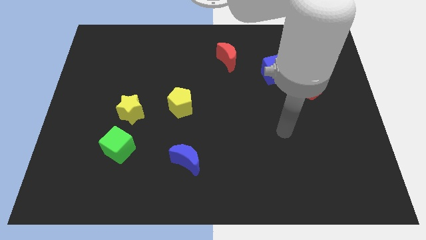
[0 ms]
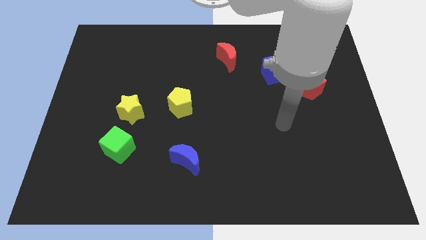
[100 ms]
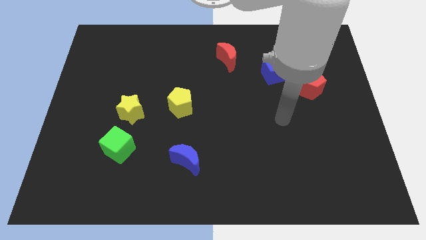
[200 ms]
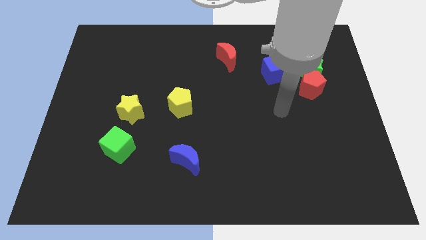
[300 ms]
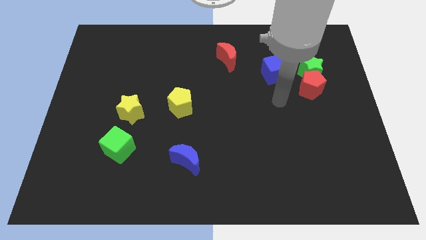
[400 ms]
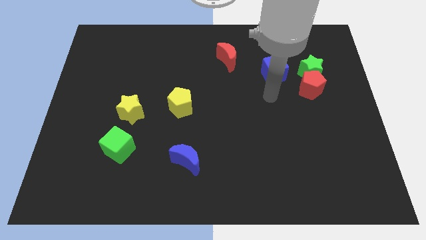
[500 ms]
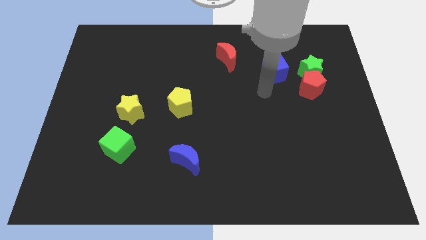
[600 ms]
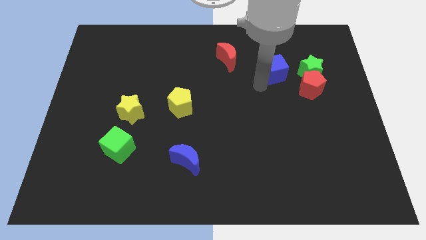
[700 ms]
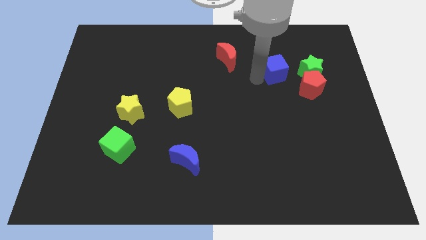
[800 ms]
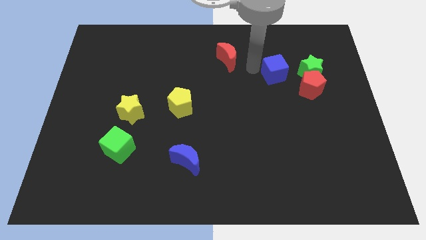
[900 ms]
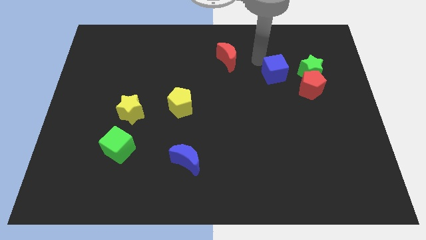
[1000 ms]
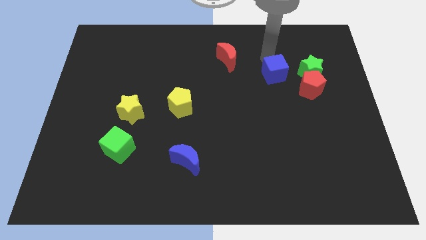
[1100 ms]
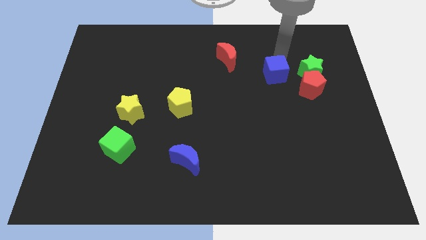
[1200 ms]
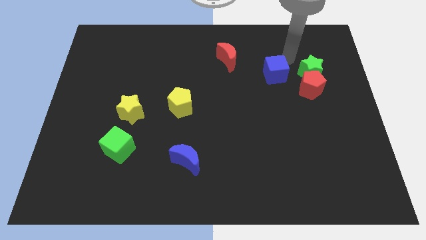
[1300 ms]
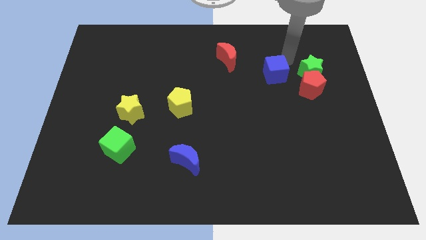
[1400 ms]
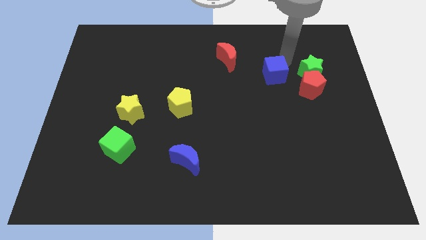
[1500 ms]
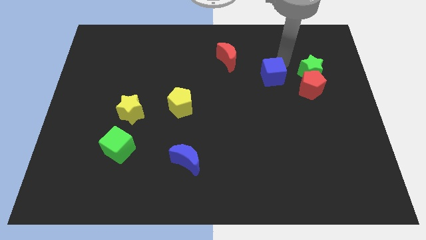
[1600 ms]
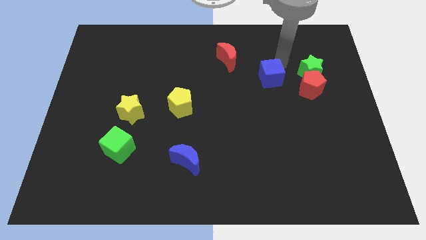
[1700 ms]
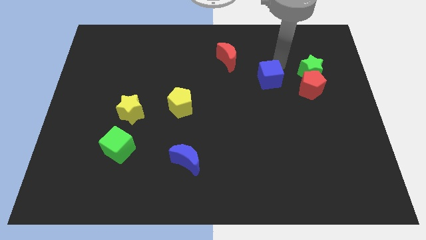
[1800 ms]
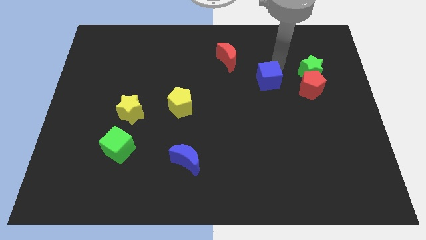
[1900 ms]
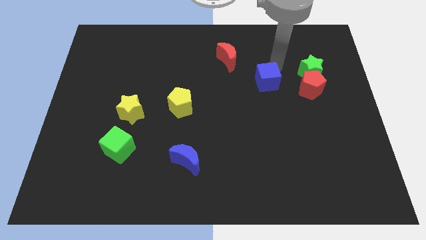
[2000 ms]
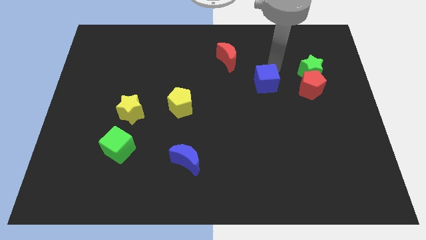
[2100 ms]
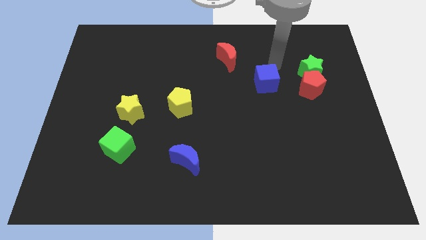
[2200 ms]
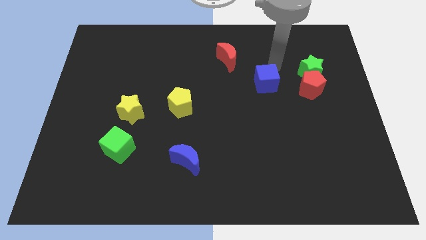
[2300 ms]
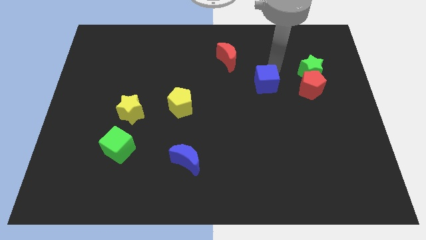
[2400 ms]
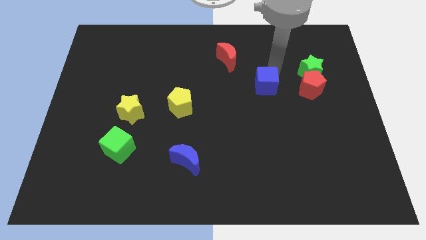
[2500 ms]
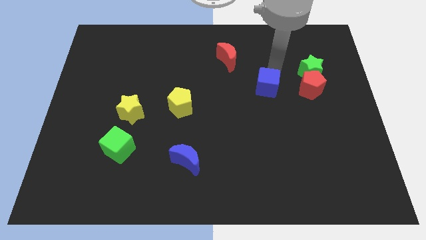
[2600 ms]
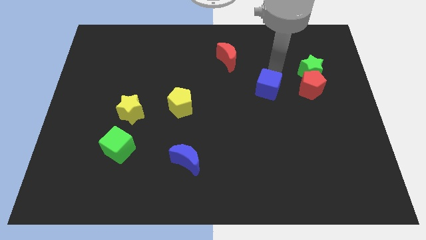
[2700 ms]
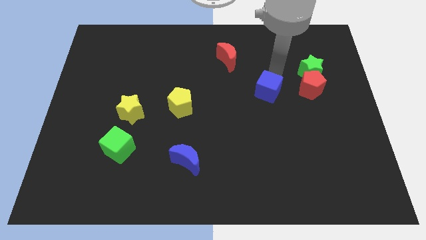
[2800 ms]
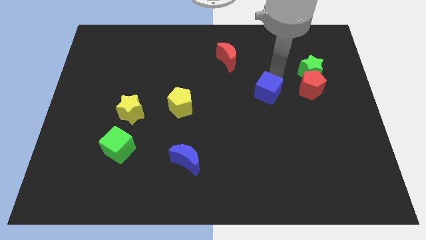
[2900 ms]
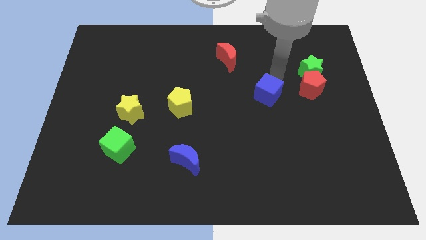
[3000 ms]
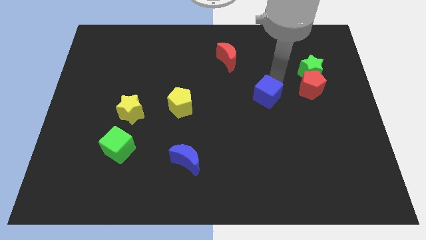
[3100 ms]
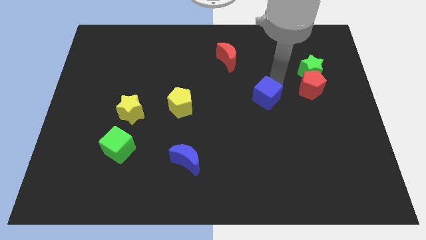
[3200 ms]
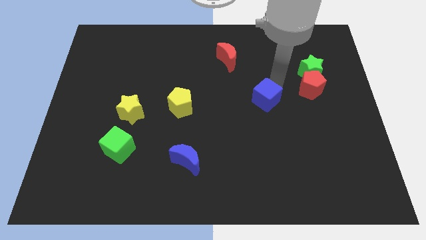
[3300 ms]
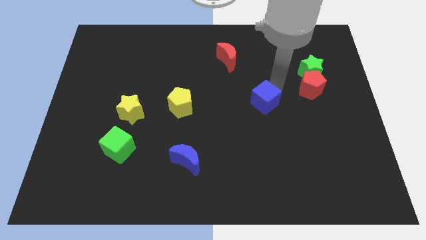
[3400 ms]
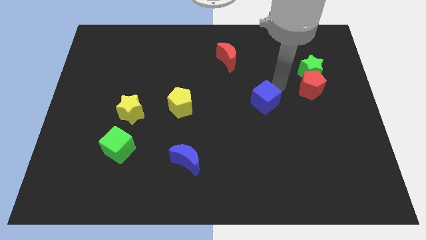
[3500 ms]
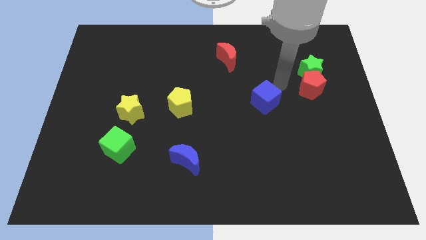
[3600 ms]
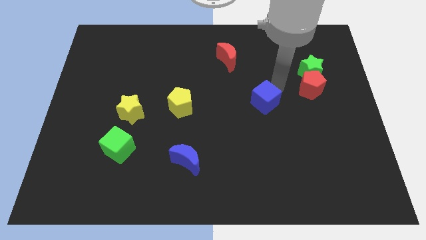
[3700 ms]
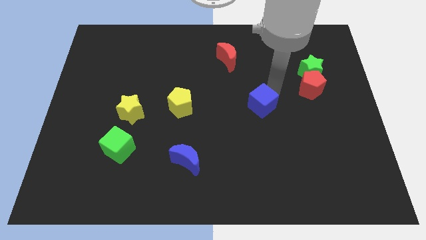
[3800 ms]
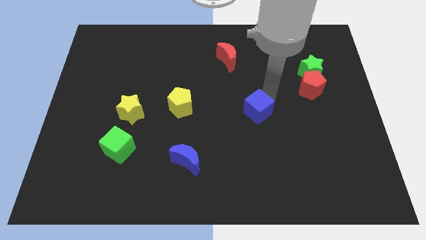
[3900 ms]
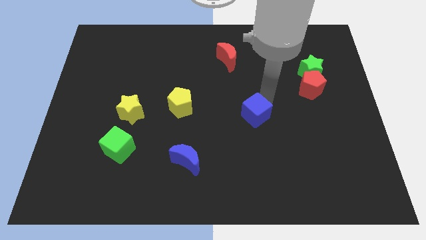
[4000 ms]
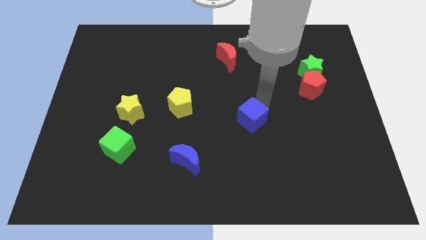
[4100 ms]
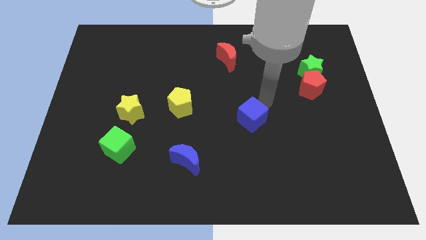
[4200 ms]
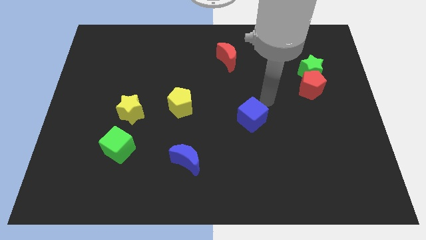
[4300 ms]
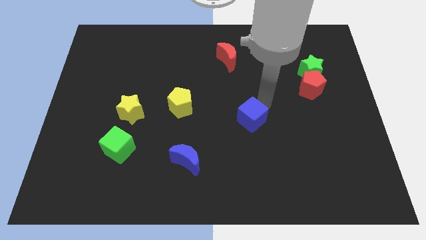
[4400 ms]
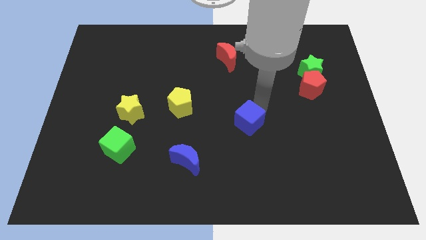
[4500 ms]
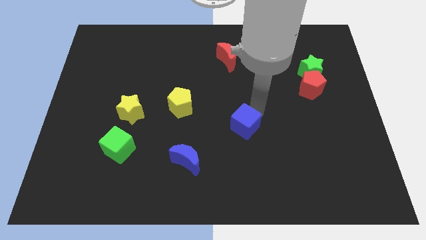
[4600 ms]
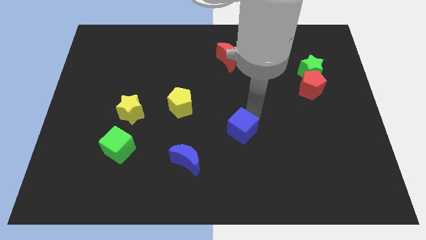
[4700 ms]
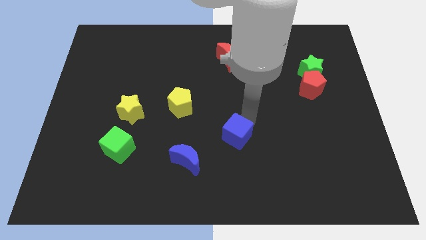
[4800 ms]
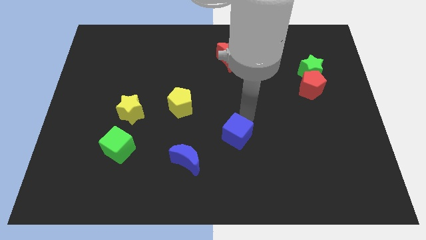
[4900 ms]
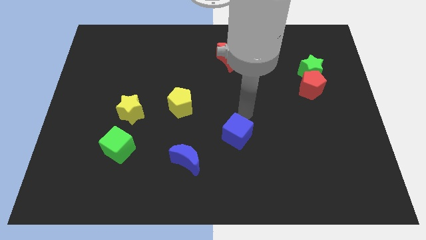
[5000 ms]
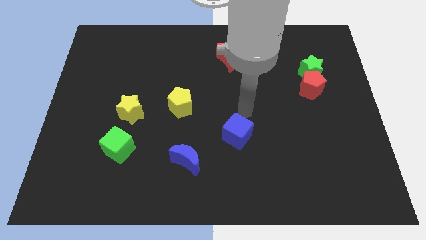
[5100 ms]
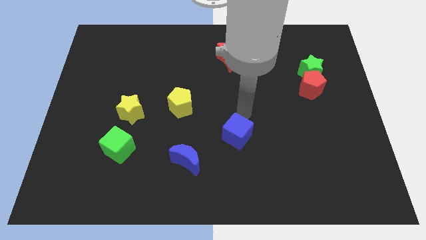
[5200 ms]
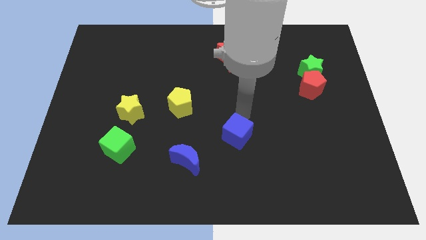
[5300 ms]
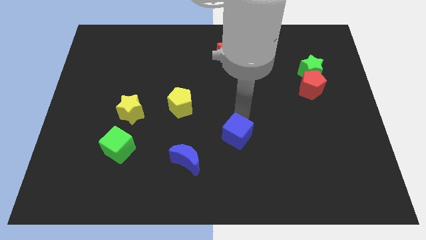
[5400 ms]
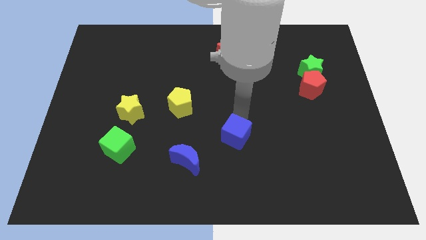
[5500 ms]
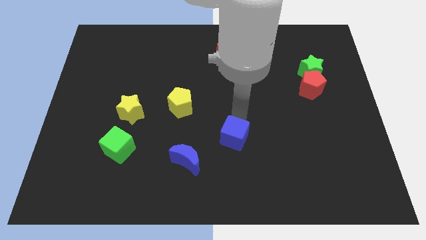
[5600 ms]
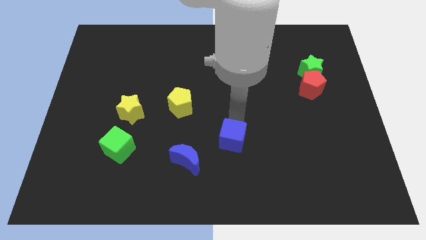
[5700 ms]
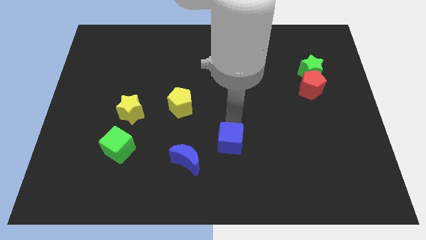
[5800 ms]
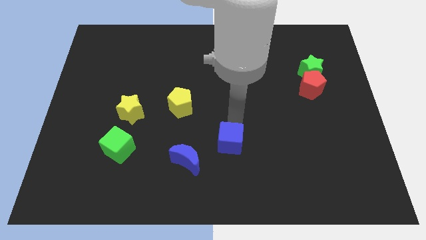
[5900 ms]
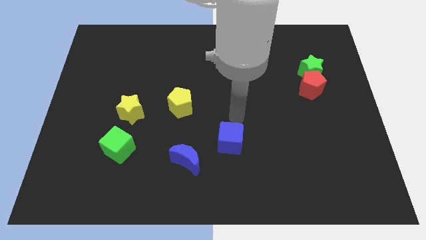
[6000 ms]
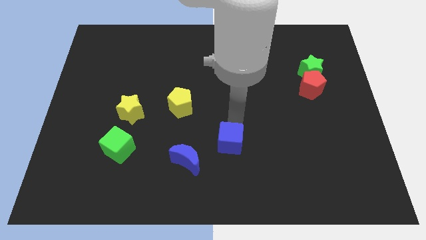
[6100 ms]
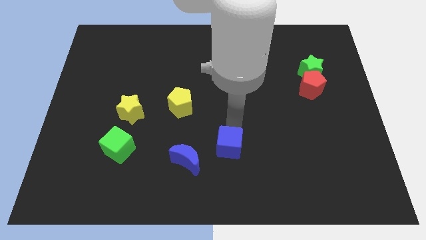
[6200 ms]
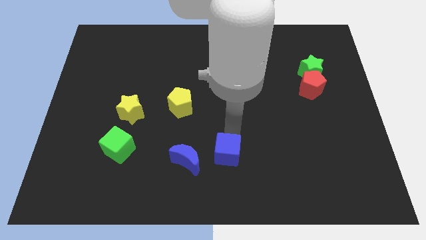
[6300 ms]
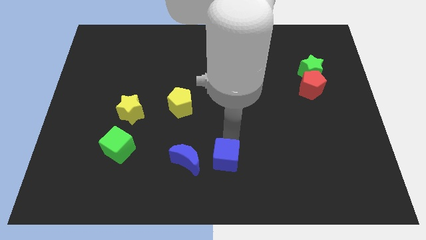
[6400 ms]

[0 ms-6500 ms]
push the blue cube to the bottom
